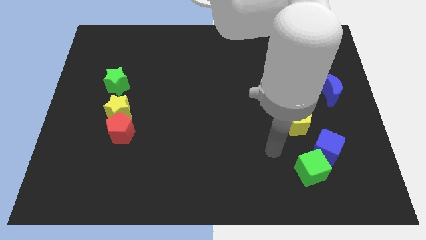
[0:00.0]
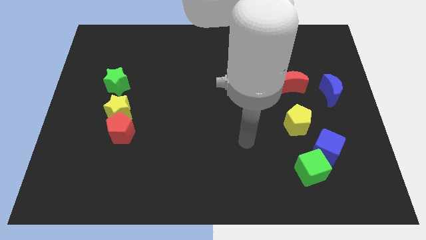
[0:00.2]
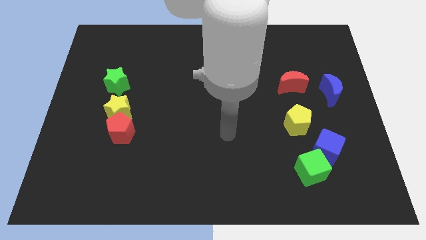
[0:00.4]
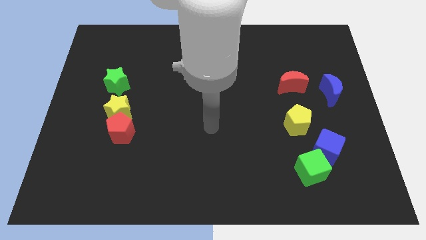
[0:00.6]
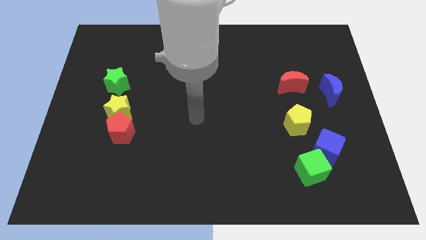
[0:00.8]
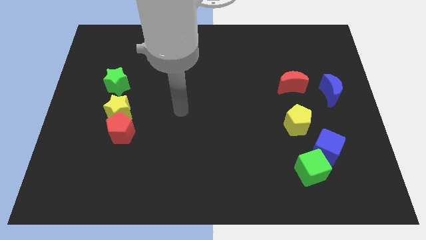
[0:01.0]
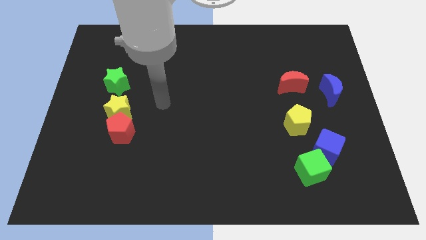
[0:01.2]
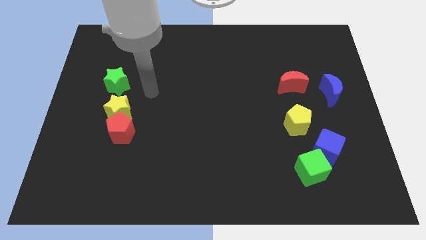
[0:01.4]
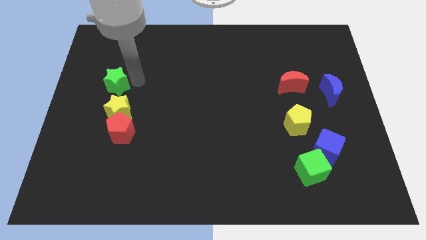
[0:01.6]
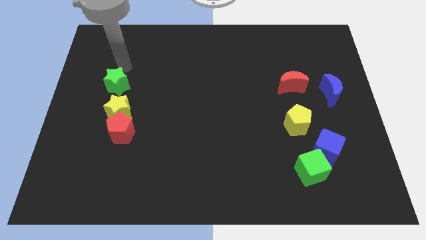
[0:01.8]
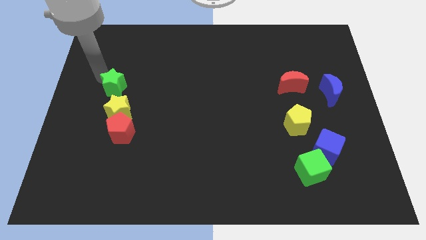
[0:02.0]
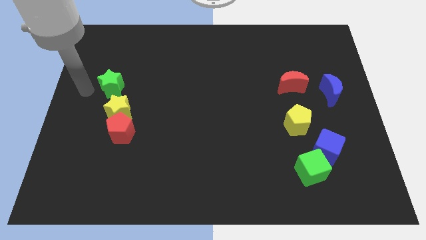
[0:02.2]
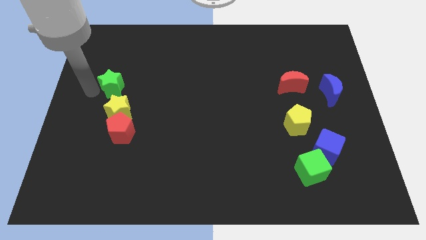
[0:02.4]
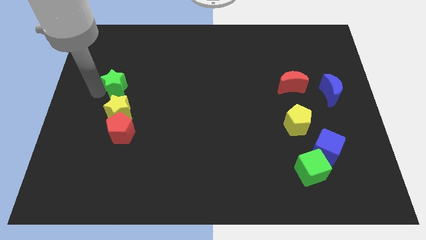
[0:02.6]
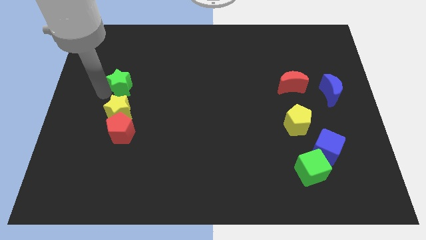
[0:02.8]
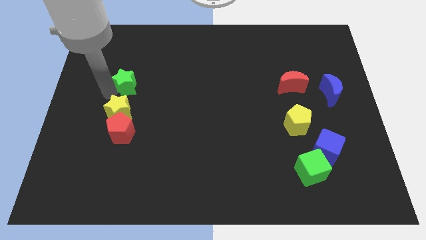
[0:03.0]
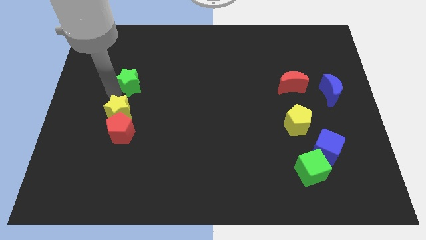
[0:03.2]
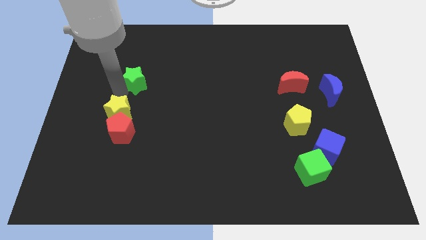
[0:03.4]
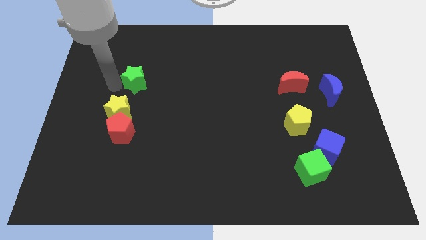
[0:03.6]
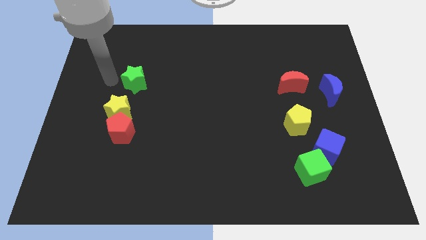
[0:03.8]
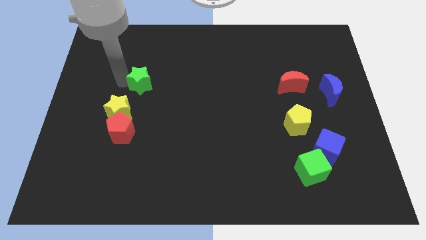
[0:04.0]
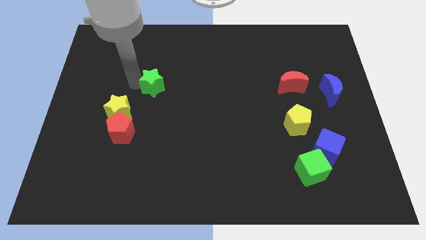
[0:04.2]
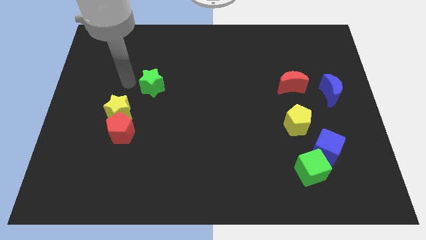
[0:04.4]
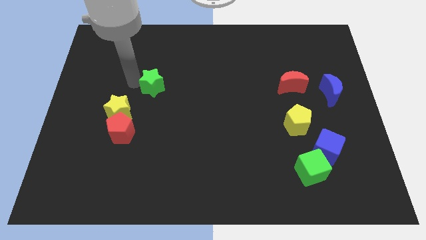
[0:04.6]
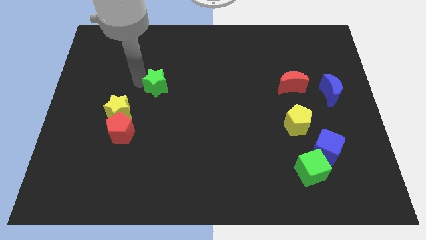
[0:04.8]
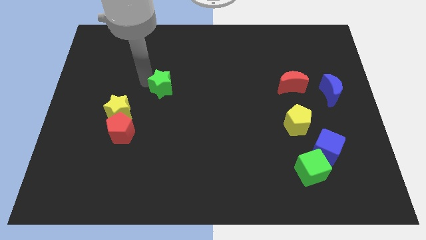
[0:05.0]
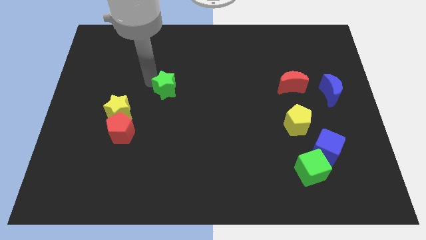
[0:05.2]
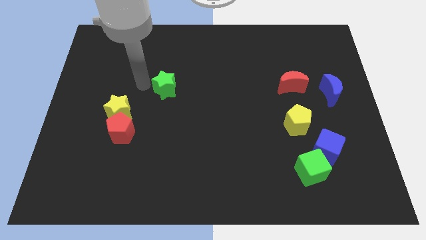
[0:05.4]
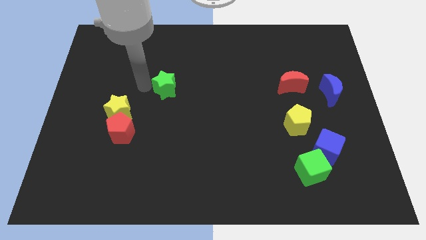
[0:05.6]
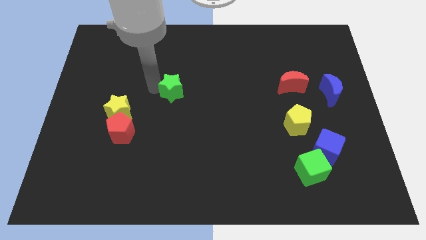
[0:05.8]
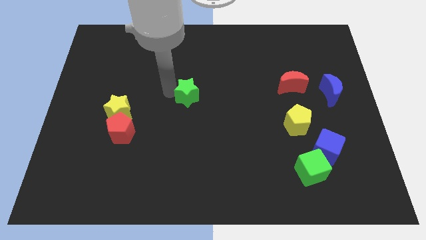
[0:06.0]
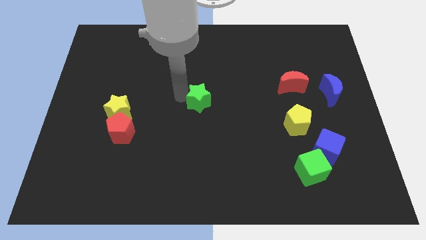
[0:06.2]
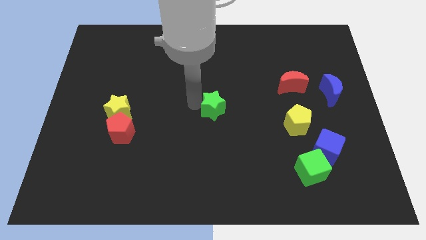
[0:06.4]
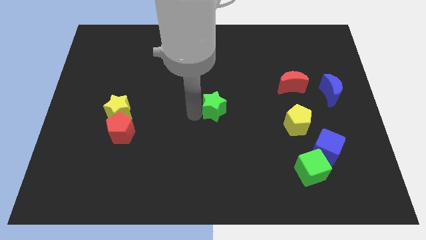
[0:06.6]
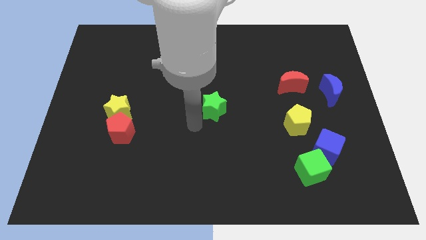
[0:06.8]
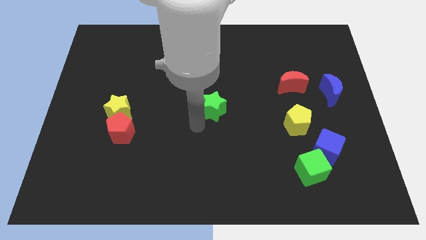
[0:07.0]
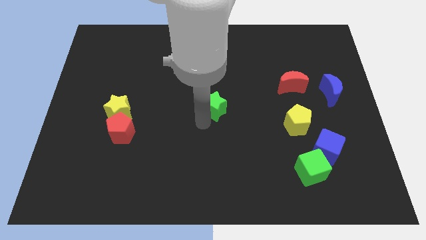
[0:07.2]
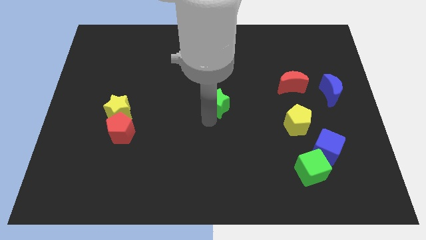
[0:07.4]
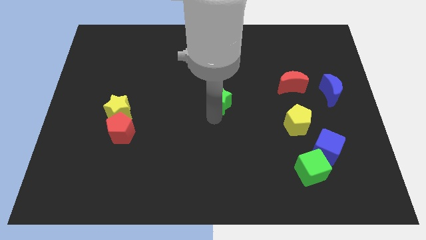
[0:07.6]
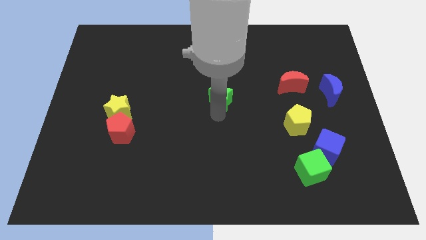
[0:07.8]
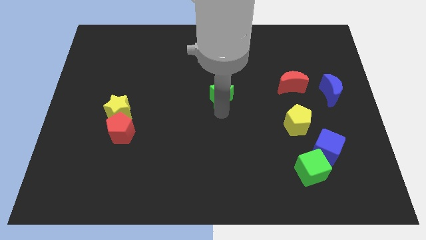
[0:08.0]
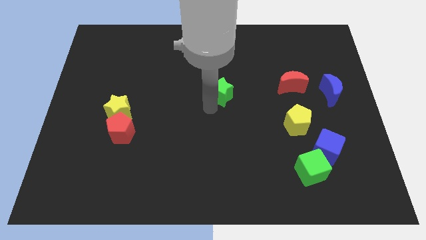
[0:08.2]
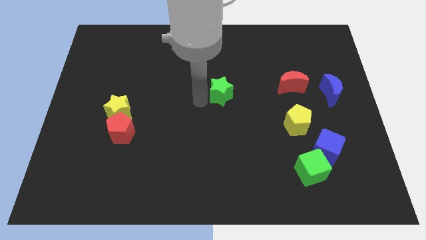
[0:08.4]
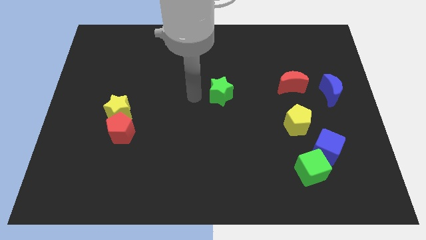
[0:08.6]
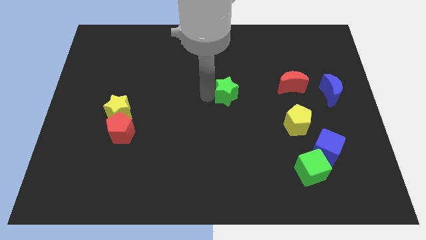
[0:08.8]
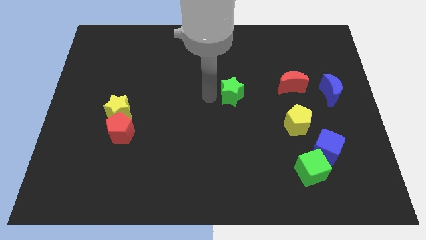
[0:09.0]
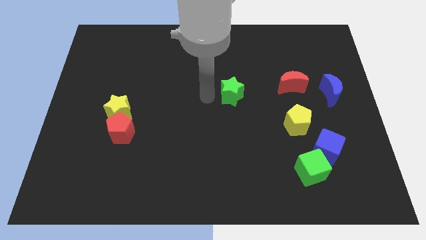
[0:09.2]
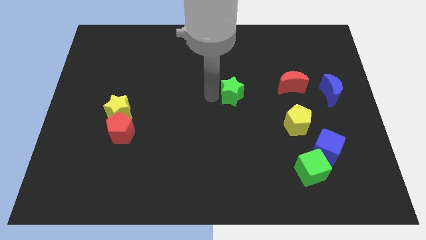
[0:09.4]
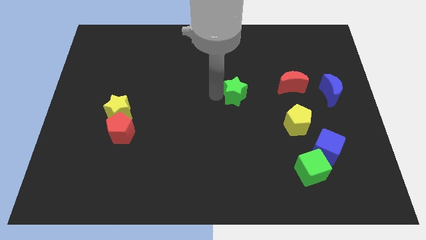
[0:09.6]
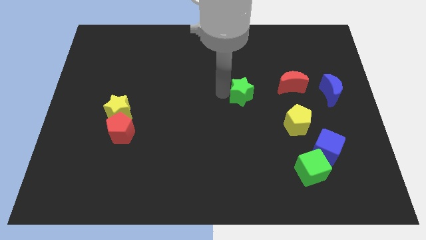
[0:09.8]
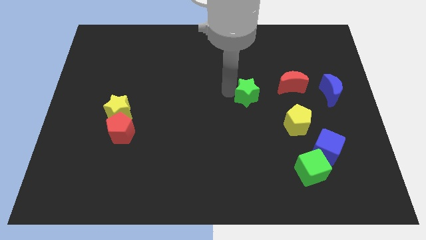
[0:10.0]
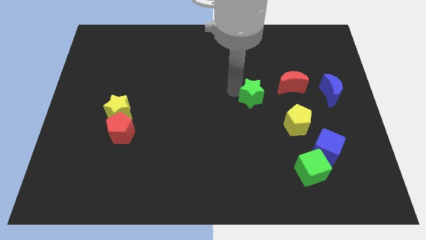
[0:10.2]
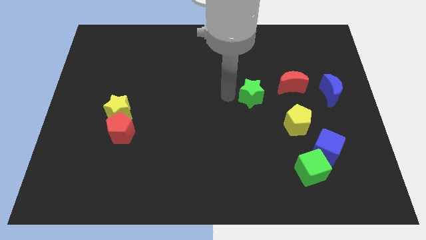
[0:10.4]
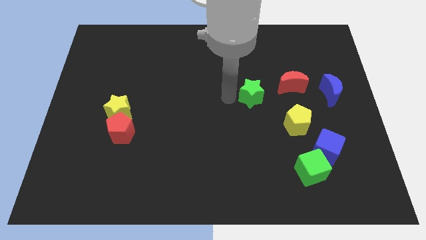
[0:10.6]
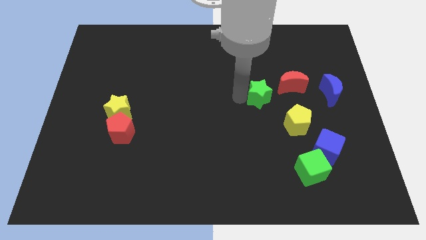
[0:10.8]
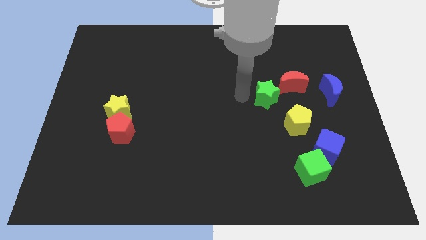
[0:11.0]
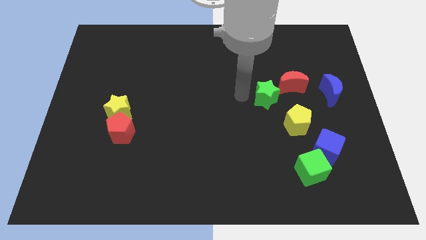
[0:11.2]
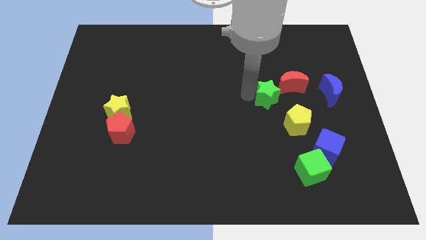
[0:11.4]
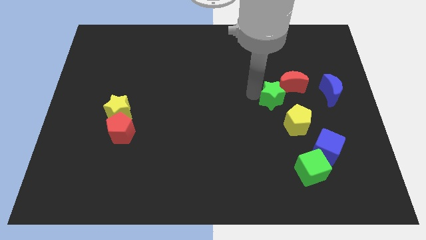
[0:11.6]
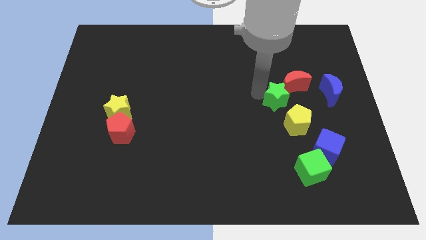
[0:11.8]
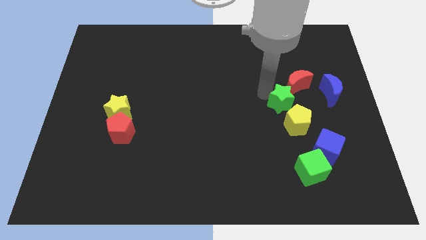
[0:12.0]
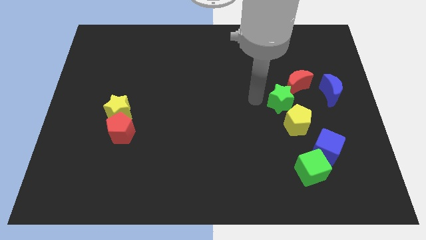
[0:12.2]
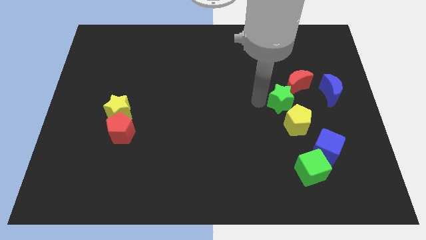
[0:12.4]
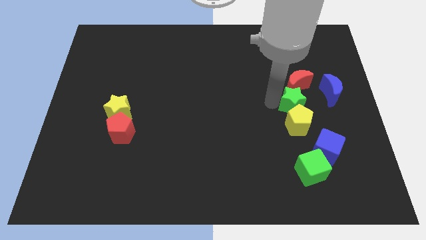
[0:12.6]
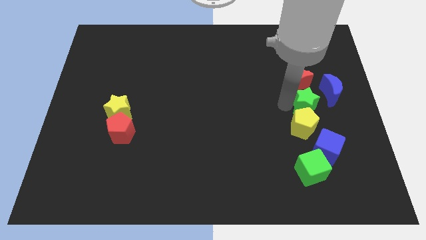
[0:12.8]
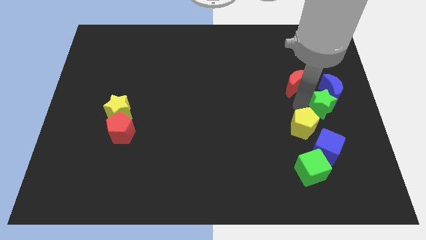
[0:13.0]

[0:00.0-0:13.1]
put the green star to the center right
